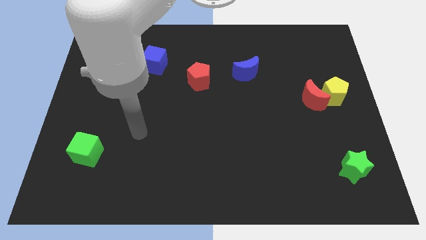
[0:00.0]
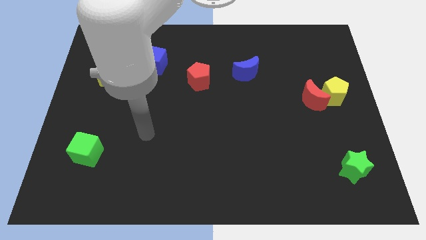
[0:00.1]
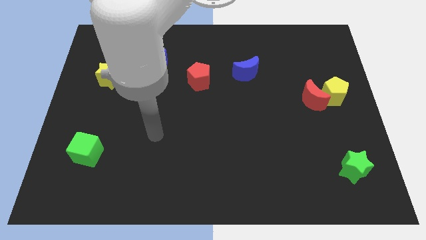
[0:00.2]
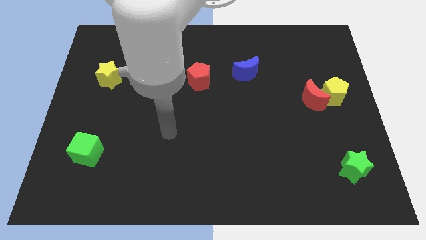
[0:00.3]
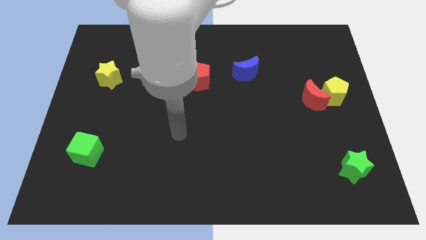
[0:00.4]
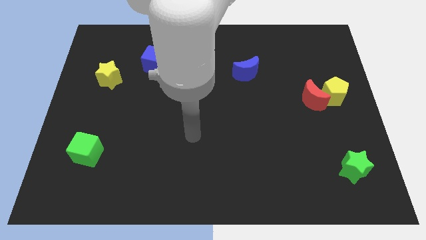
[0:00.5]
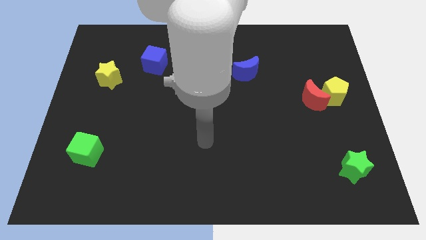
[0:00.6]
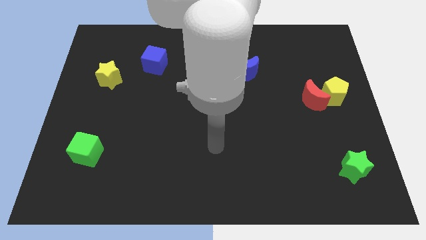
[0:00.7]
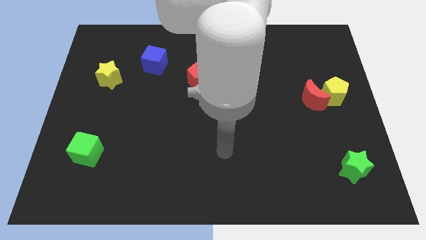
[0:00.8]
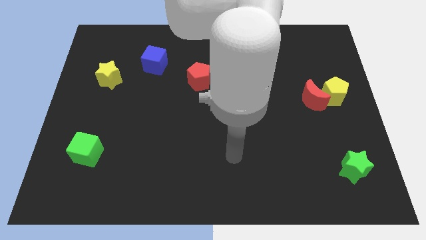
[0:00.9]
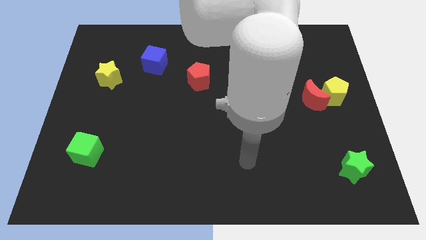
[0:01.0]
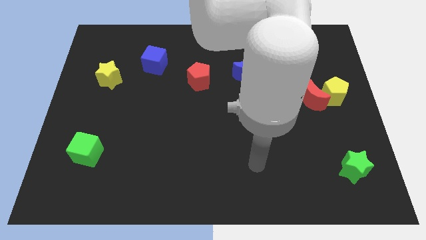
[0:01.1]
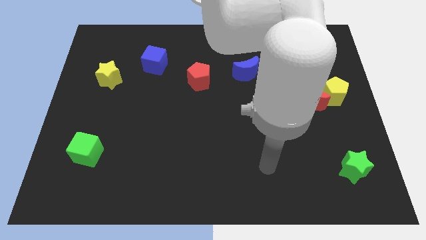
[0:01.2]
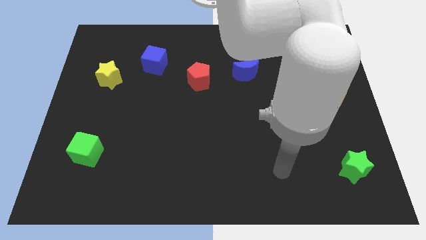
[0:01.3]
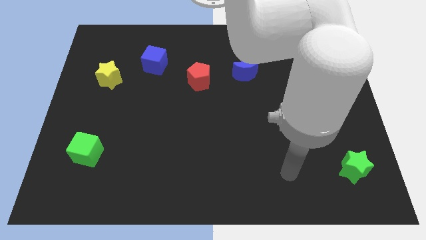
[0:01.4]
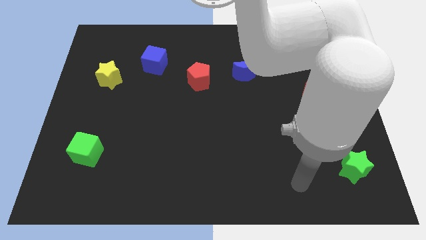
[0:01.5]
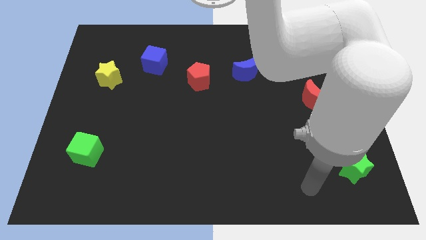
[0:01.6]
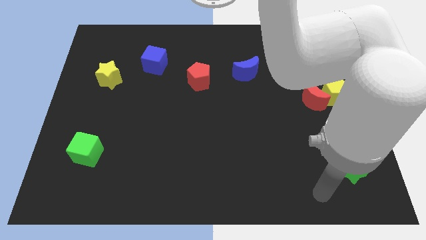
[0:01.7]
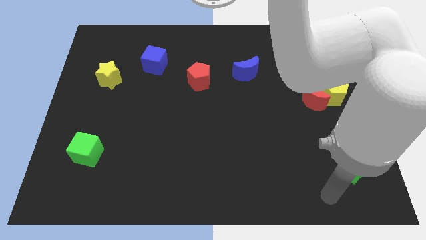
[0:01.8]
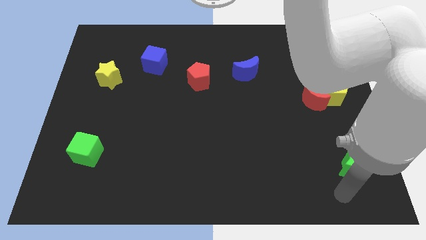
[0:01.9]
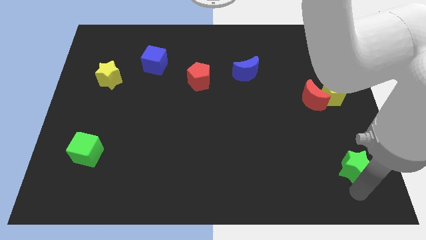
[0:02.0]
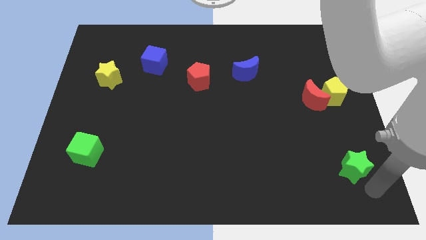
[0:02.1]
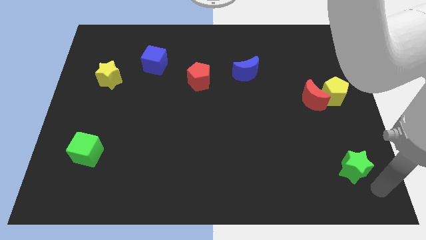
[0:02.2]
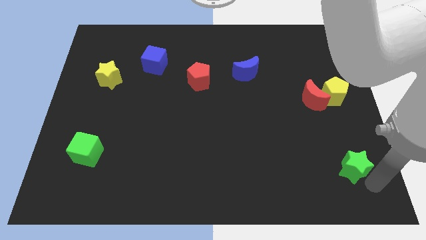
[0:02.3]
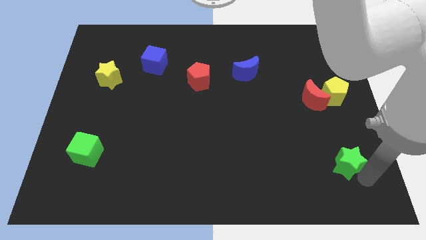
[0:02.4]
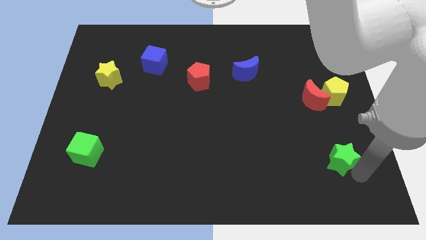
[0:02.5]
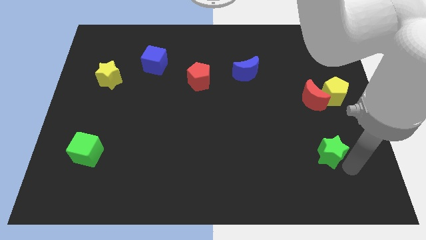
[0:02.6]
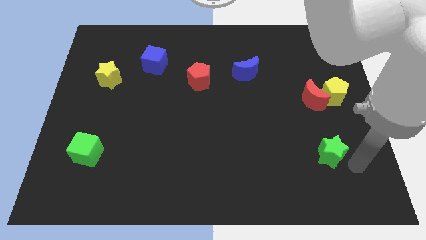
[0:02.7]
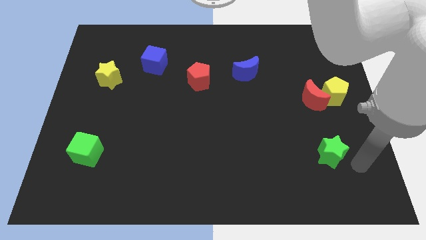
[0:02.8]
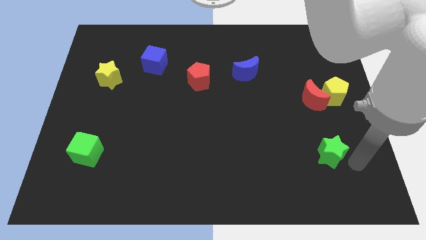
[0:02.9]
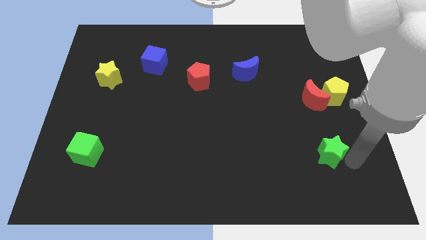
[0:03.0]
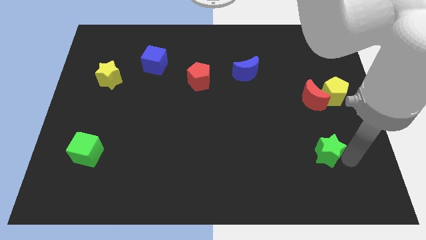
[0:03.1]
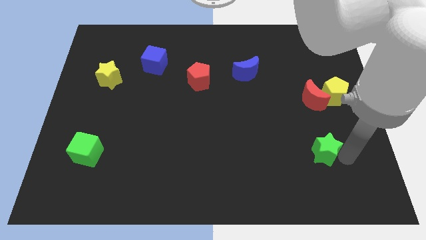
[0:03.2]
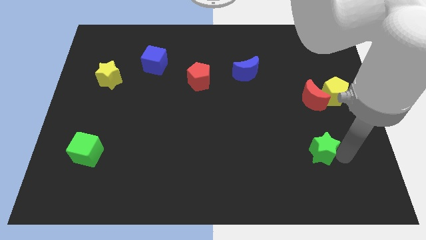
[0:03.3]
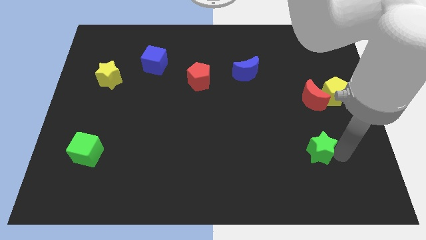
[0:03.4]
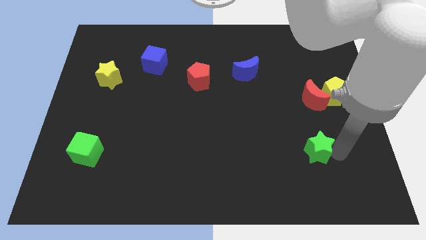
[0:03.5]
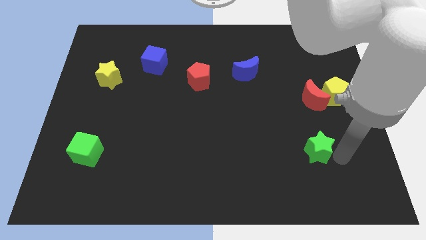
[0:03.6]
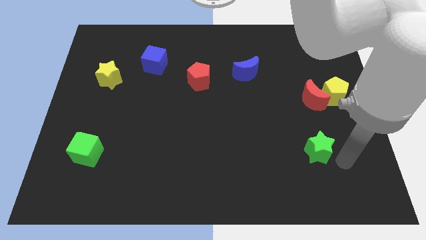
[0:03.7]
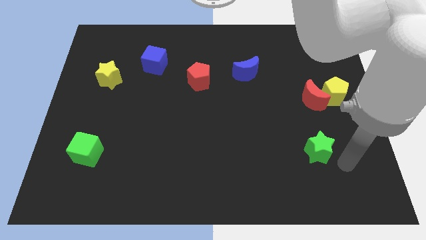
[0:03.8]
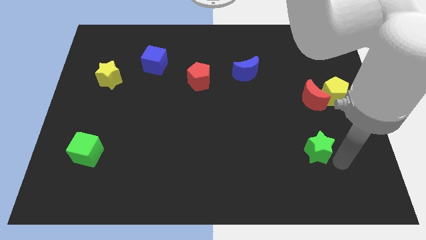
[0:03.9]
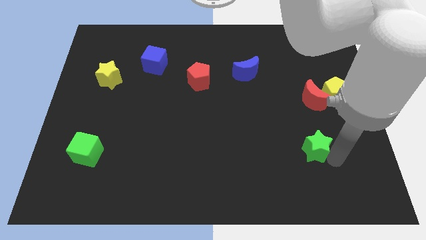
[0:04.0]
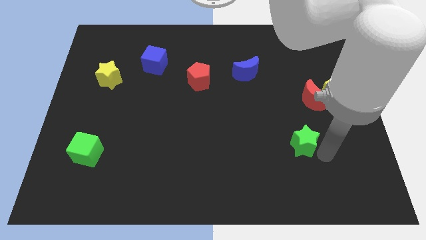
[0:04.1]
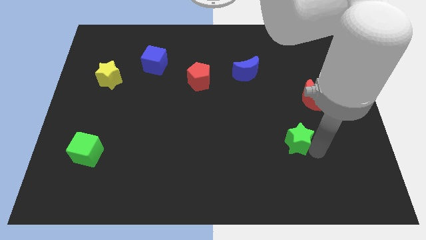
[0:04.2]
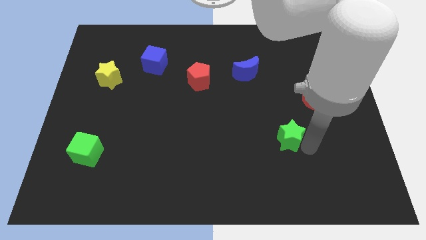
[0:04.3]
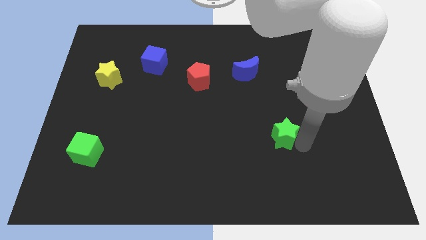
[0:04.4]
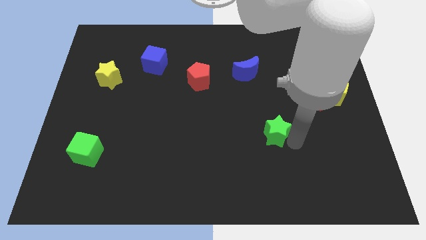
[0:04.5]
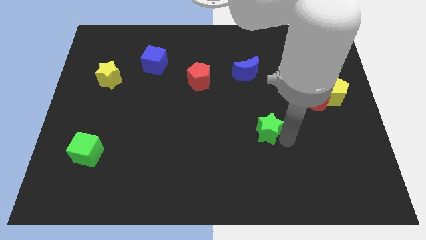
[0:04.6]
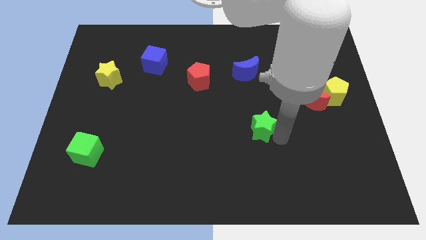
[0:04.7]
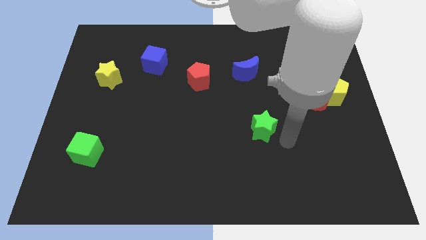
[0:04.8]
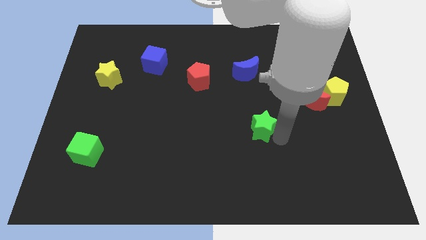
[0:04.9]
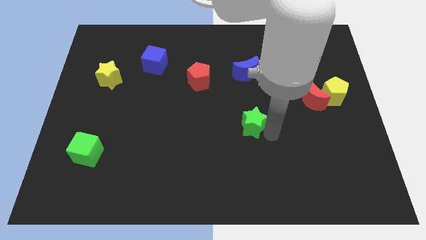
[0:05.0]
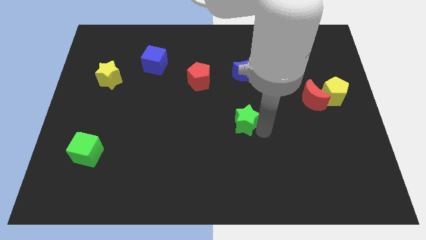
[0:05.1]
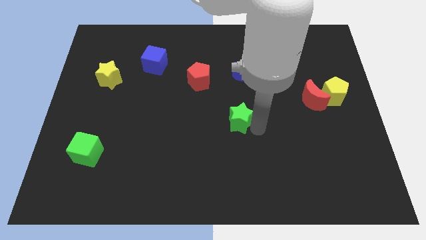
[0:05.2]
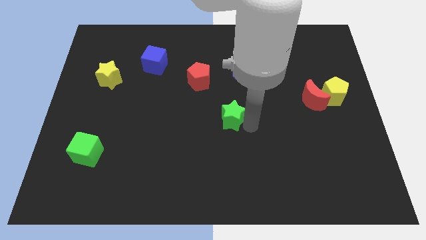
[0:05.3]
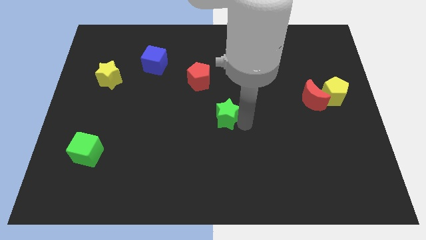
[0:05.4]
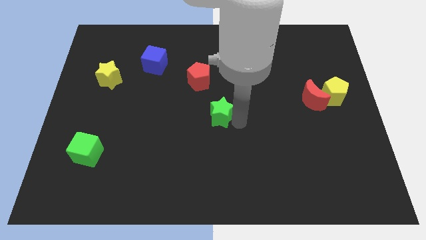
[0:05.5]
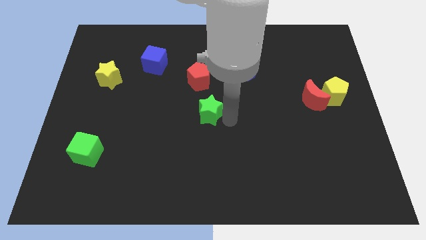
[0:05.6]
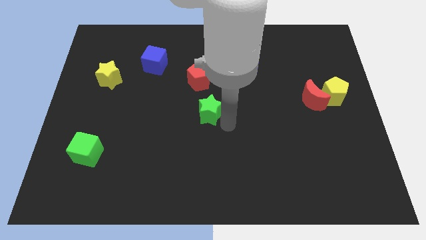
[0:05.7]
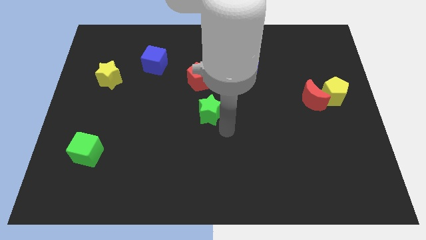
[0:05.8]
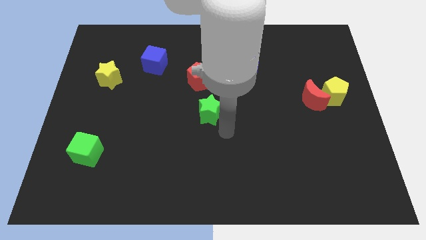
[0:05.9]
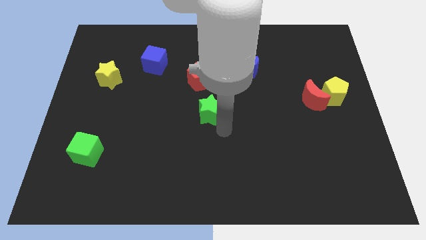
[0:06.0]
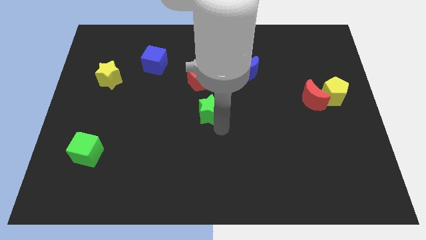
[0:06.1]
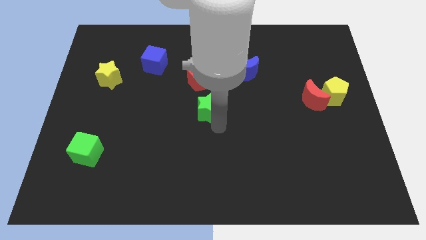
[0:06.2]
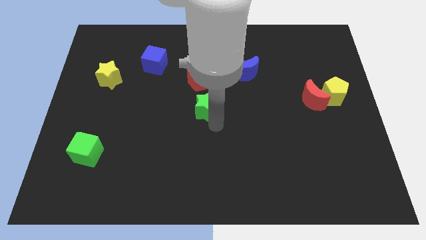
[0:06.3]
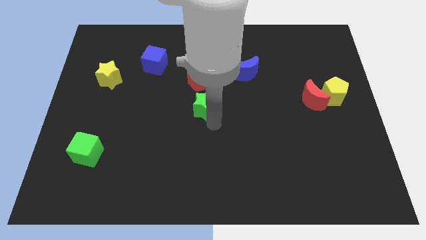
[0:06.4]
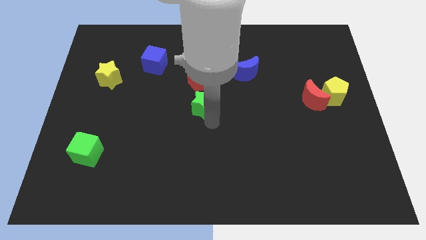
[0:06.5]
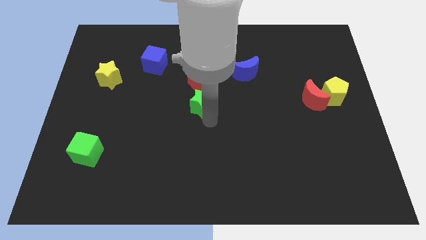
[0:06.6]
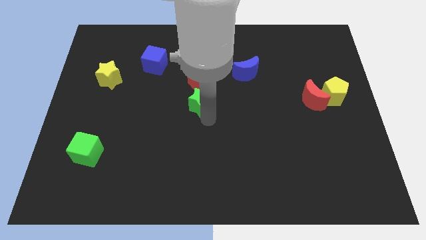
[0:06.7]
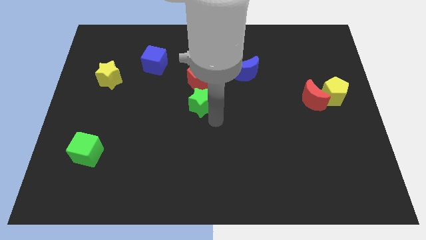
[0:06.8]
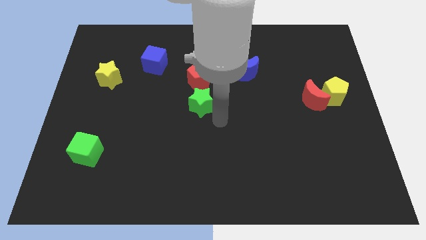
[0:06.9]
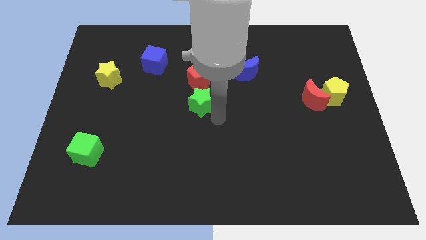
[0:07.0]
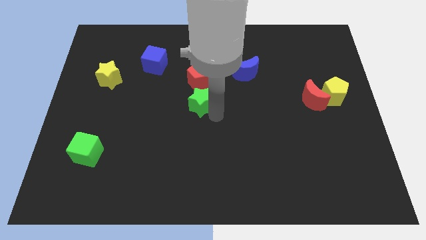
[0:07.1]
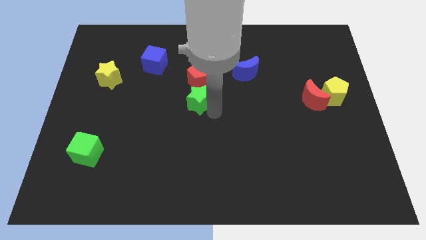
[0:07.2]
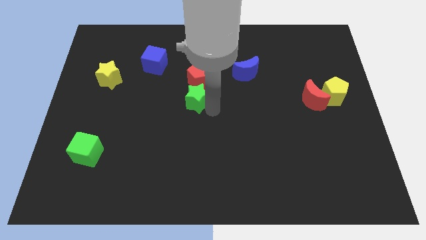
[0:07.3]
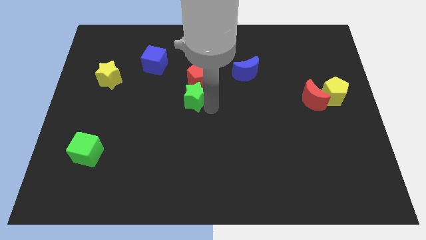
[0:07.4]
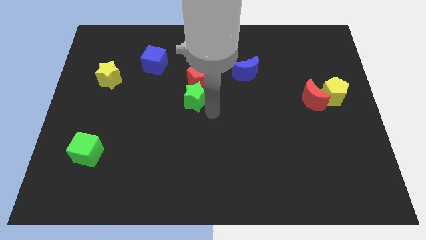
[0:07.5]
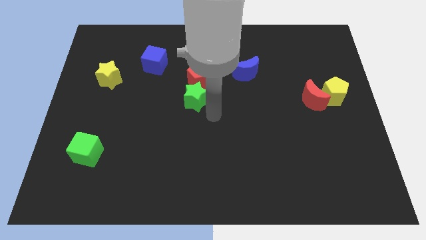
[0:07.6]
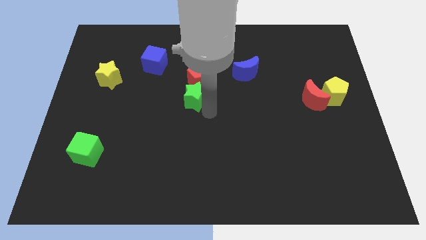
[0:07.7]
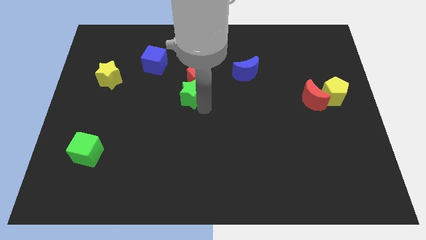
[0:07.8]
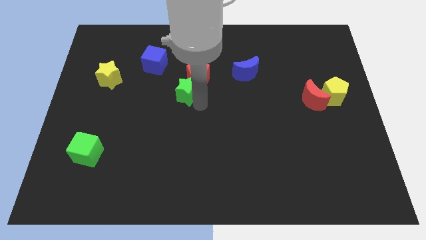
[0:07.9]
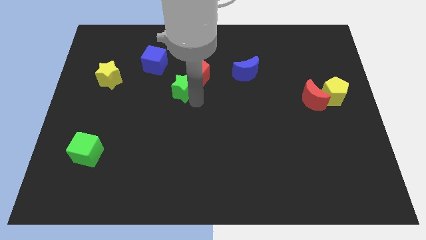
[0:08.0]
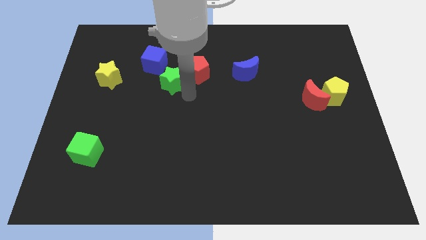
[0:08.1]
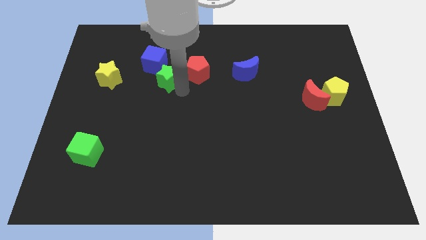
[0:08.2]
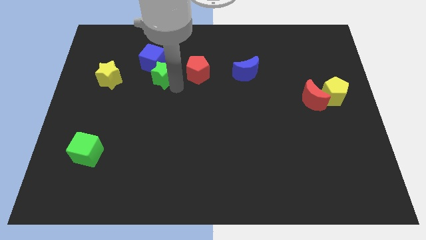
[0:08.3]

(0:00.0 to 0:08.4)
move the green star towards the blue cube
